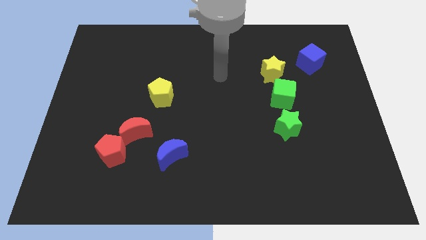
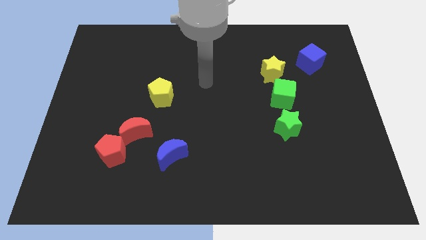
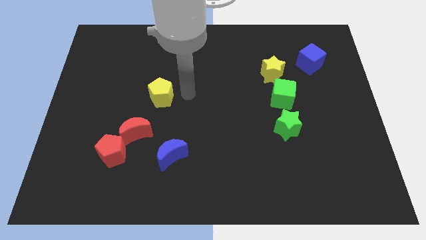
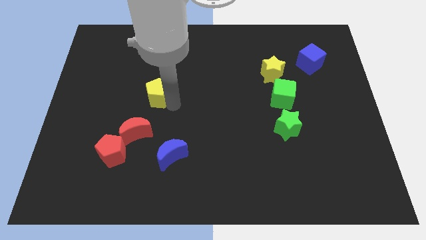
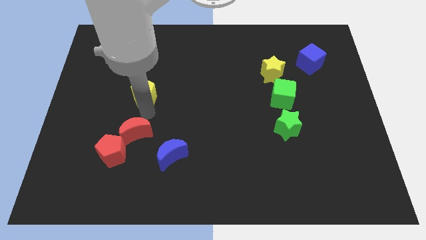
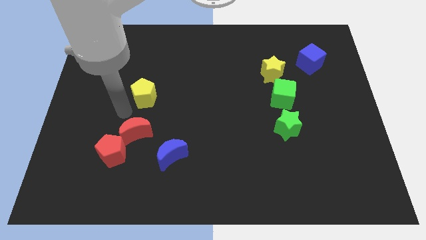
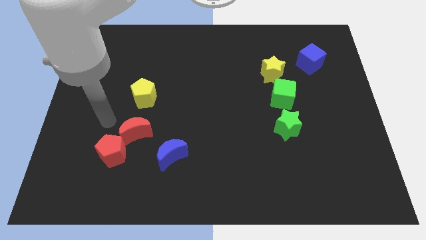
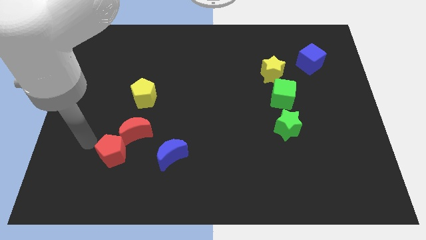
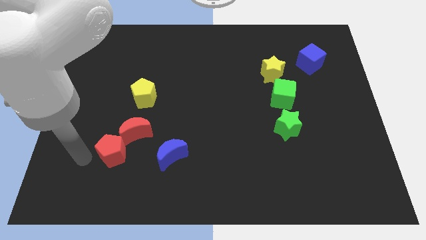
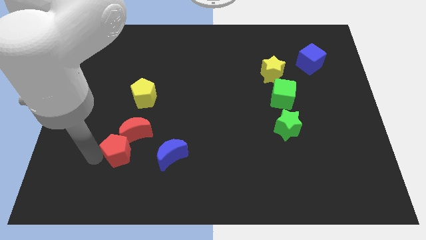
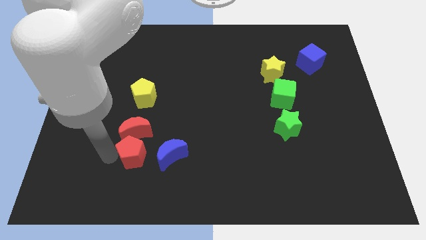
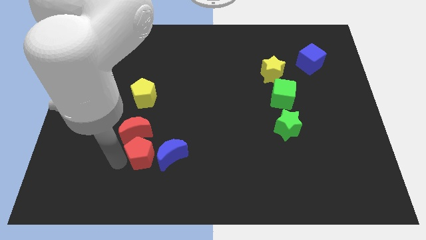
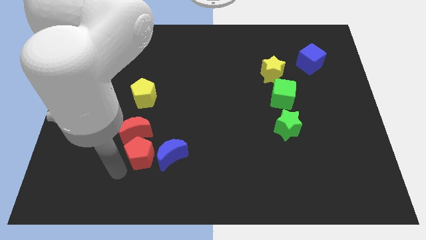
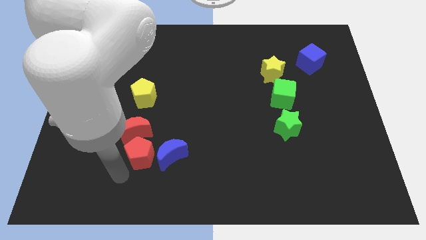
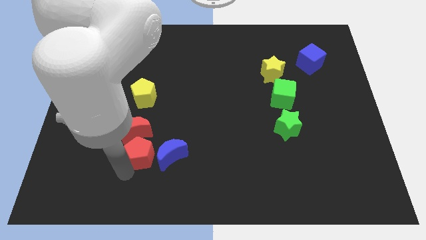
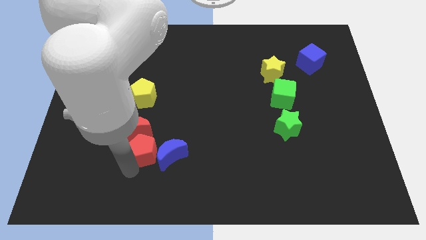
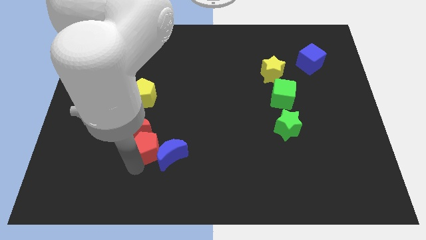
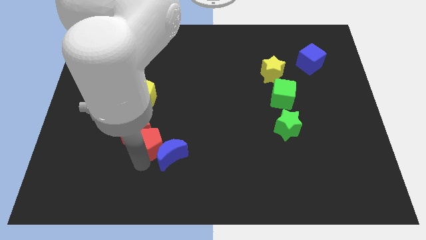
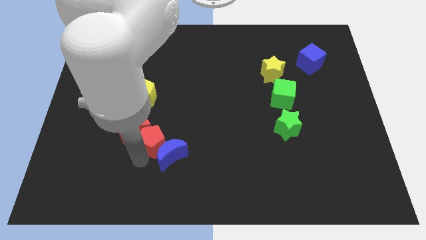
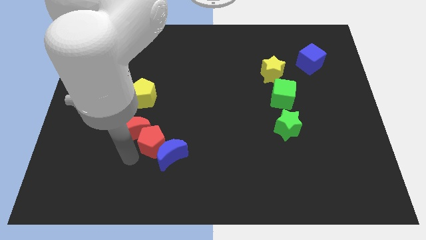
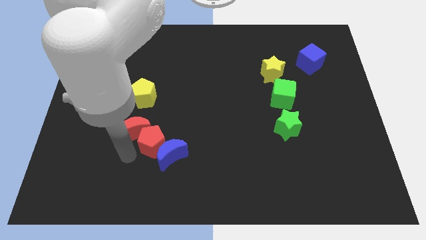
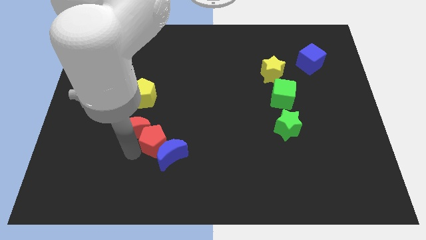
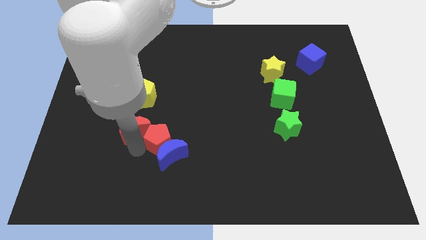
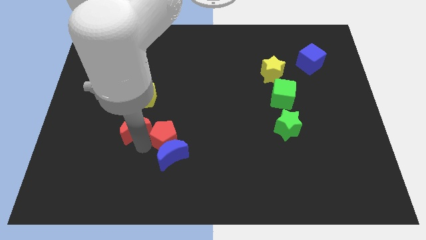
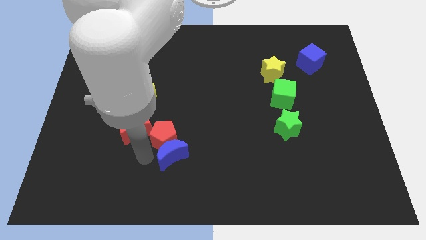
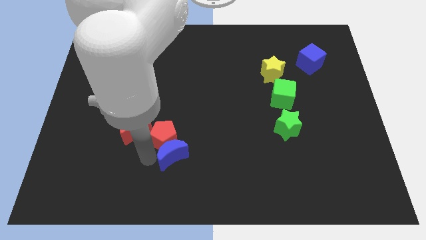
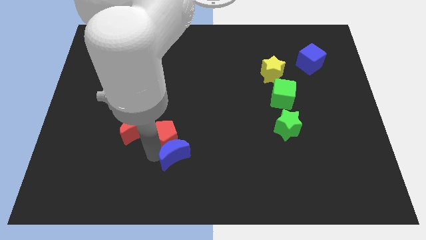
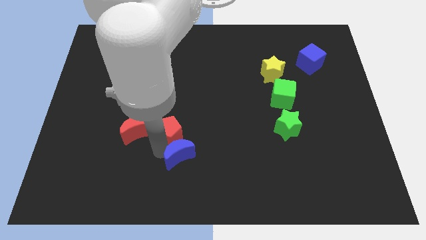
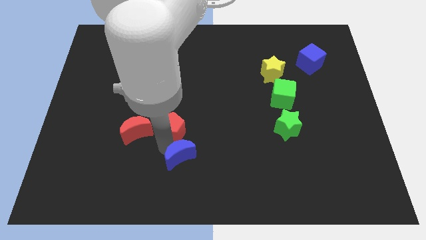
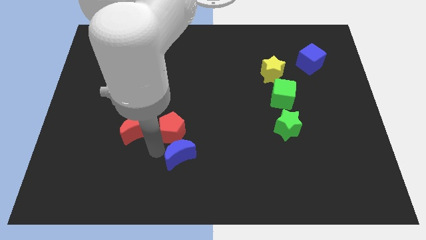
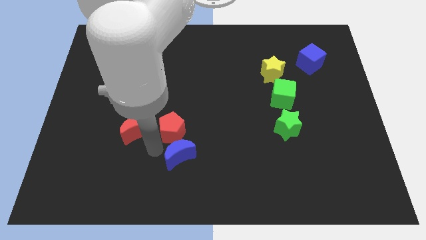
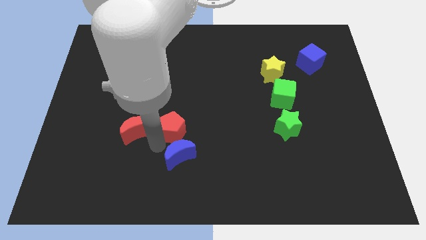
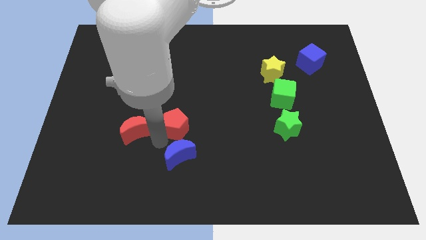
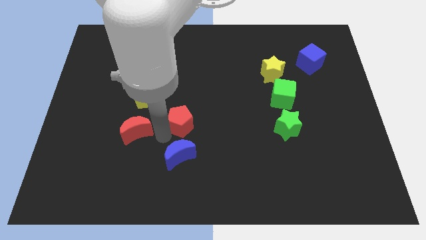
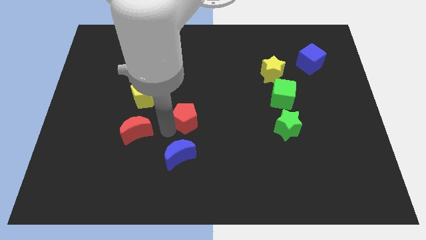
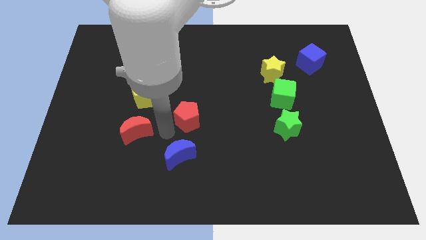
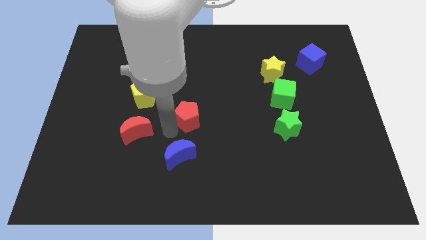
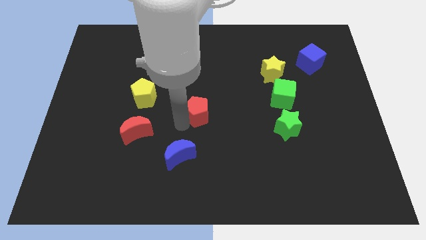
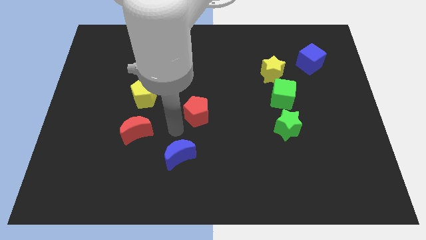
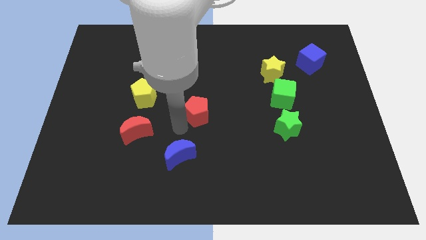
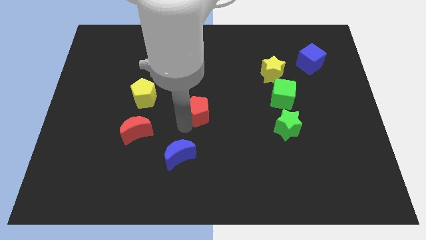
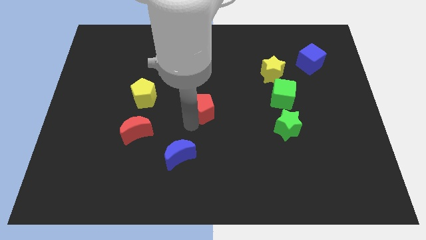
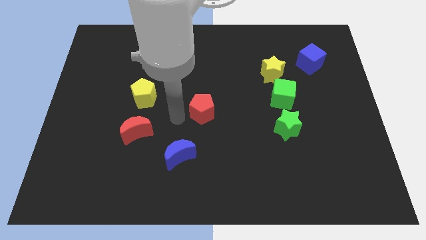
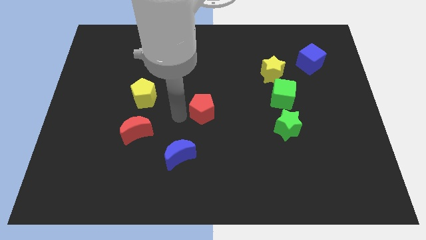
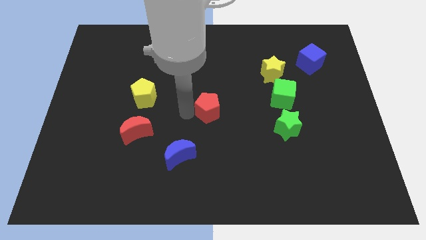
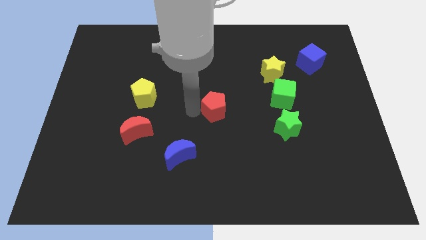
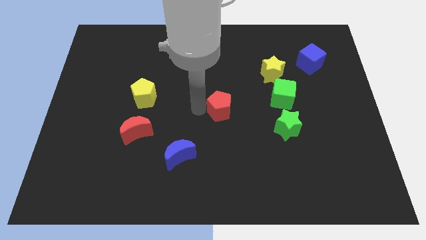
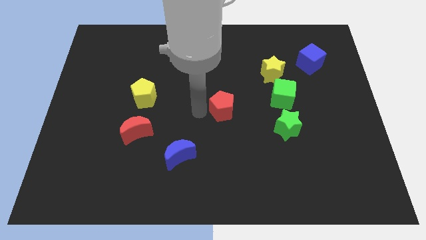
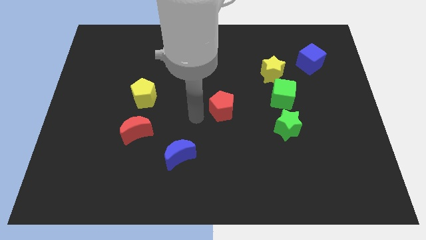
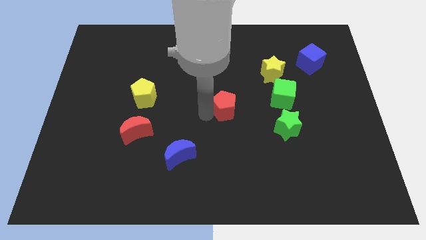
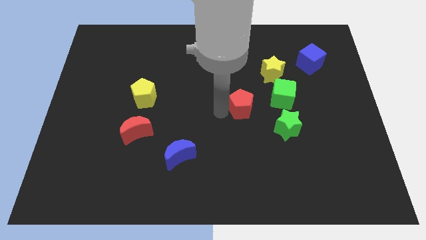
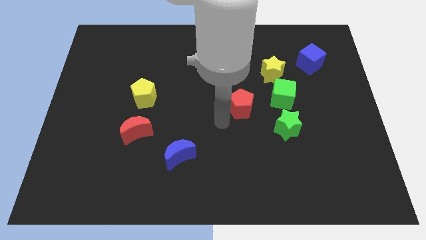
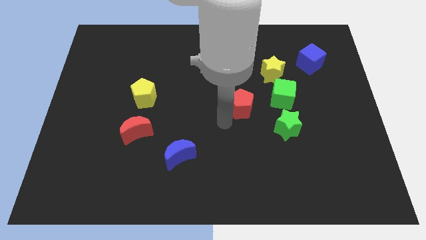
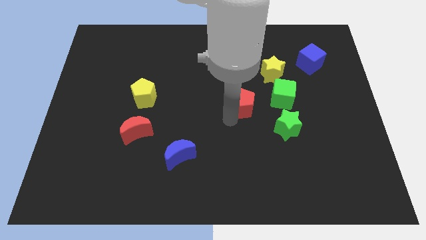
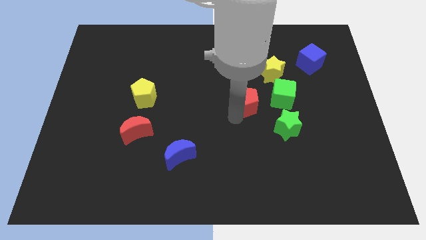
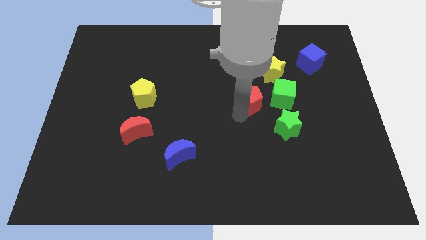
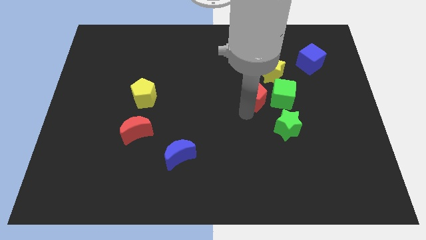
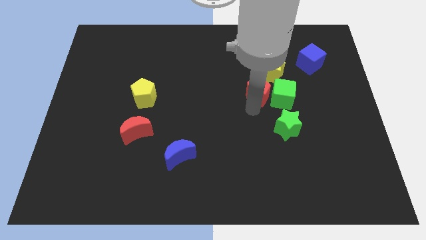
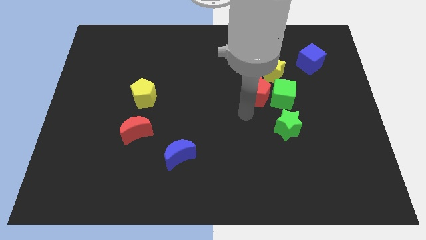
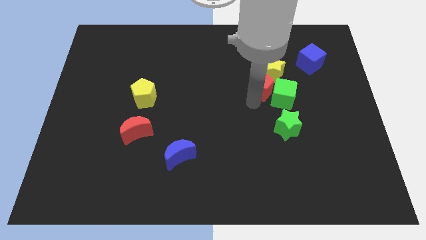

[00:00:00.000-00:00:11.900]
move the red pentagon next to the yellow star

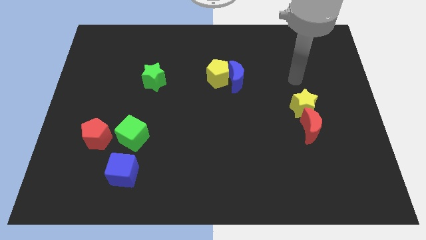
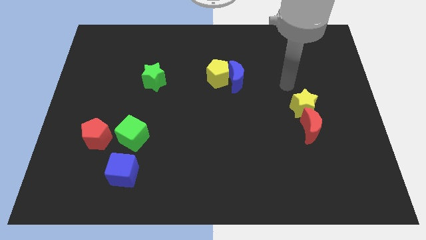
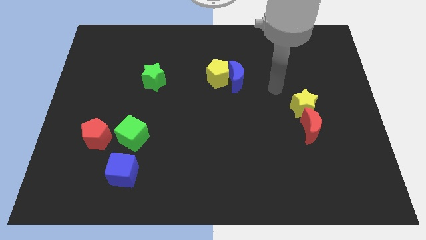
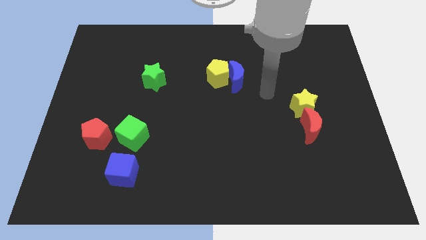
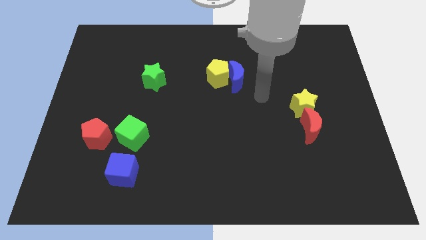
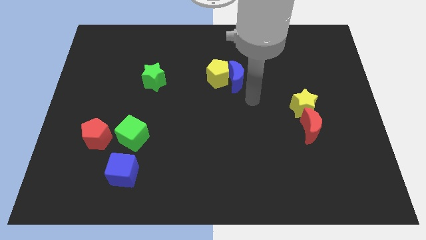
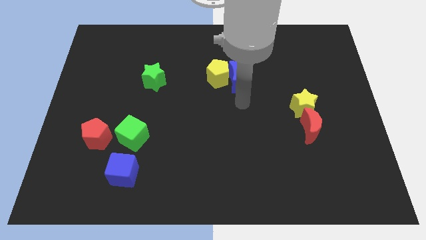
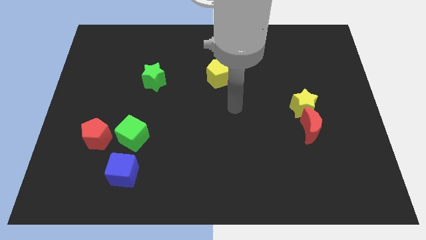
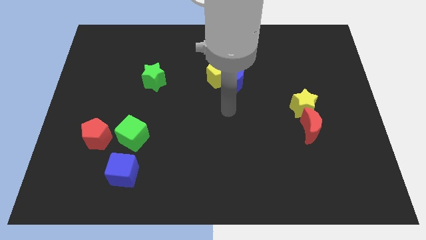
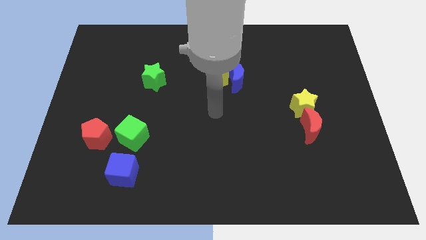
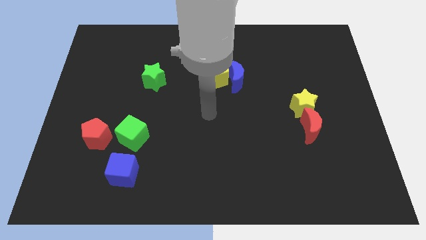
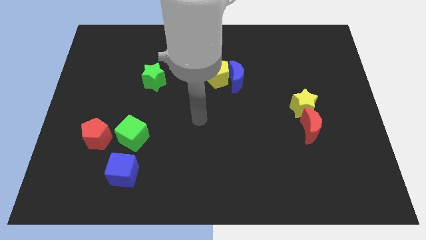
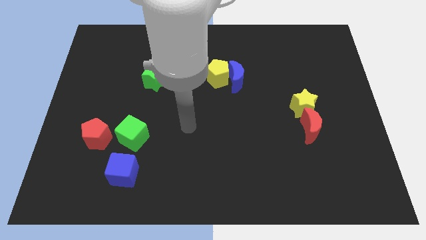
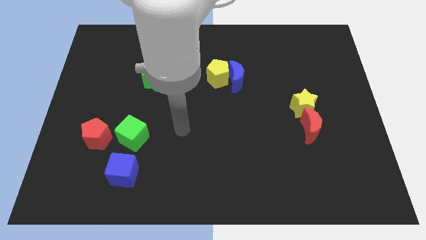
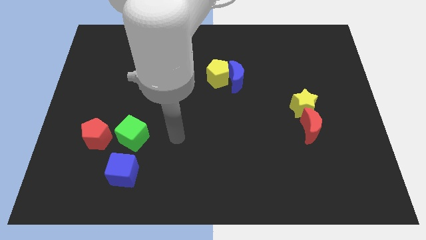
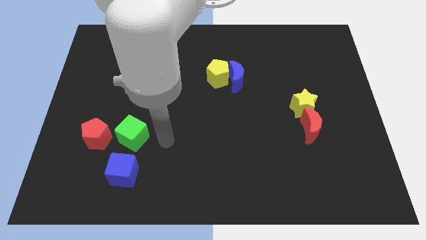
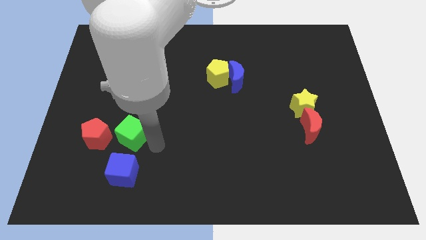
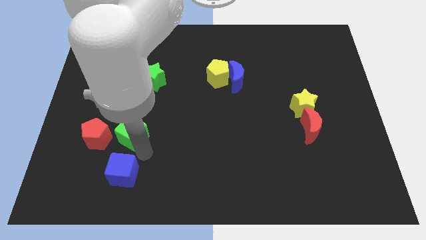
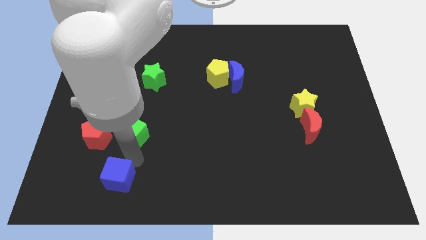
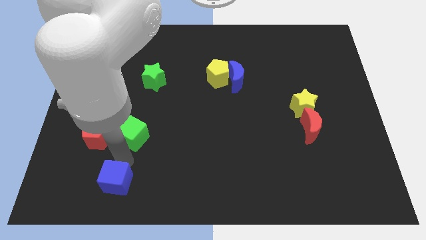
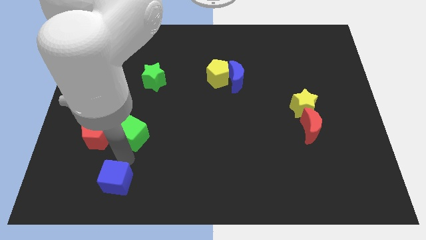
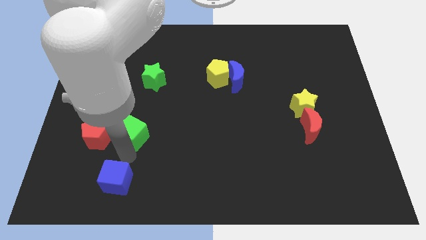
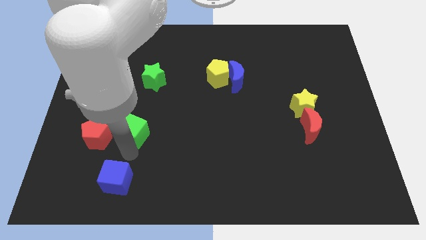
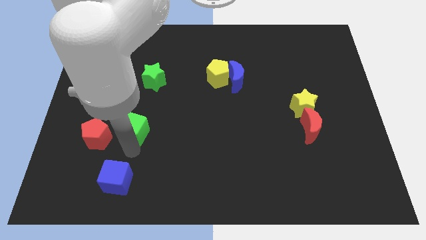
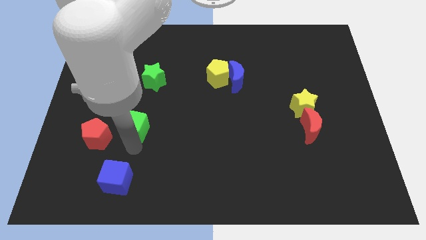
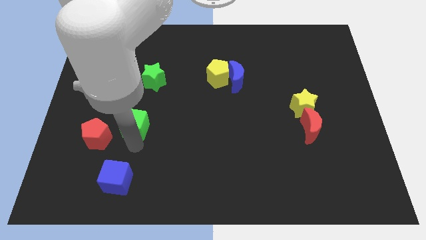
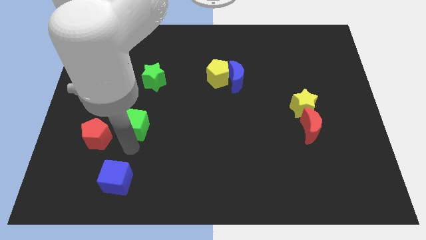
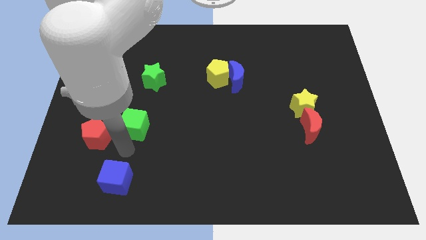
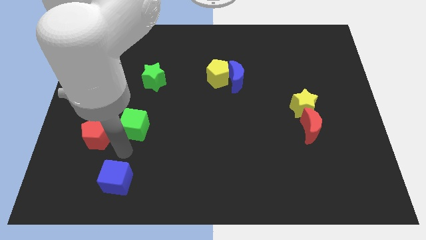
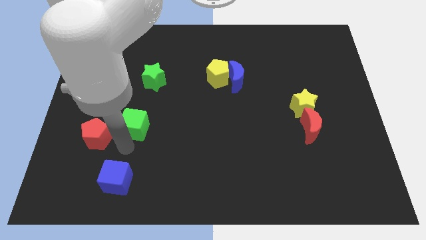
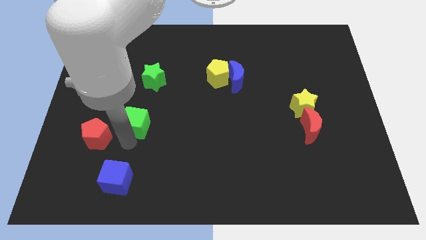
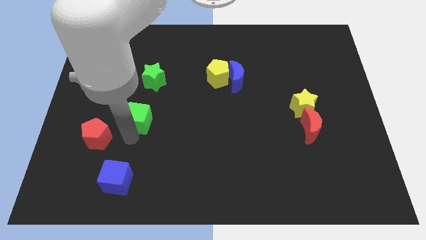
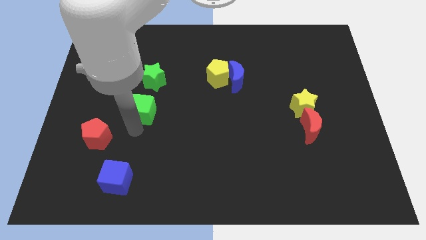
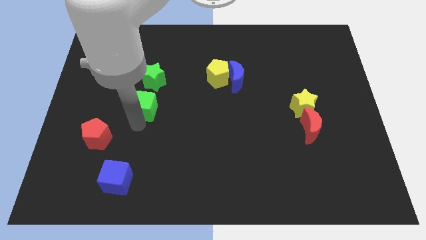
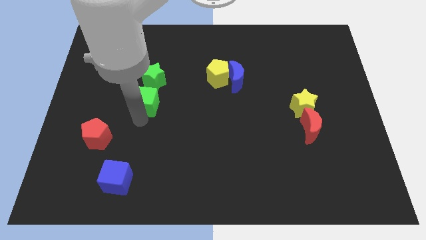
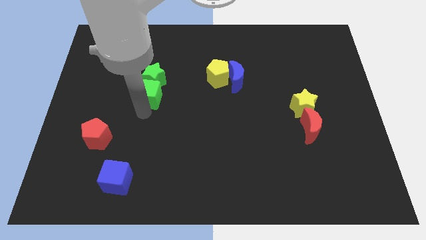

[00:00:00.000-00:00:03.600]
put the green cube towards the green star
